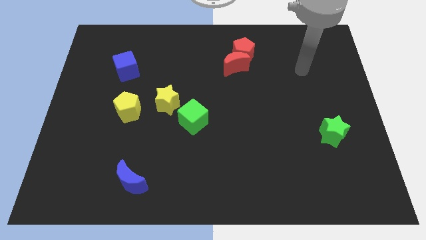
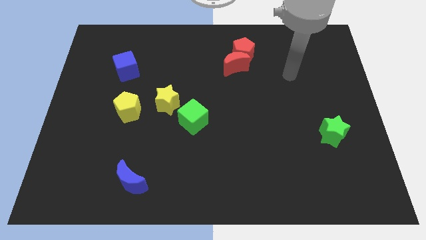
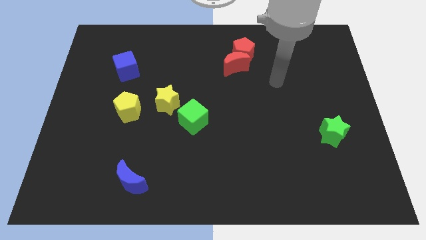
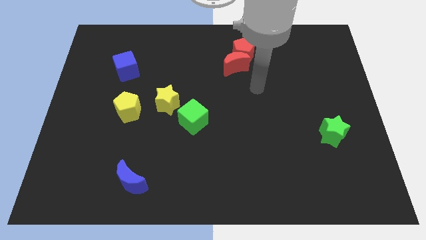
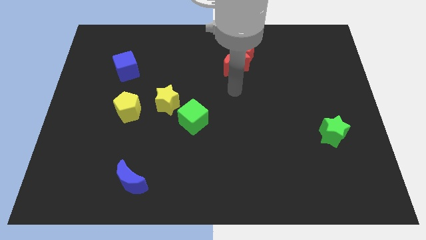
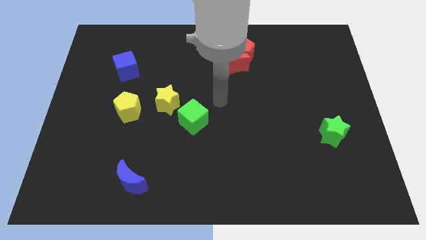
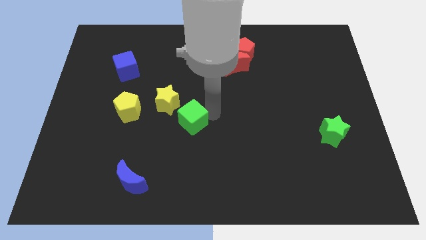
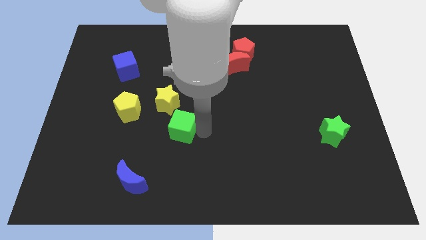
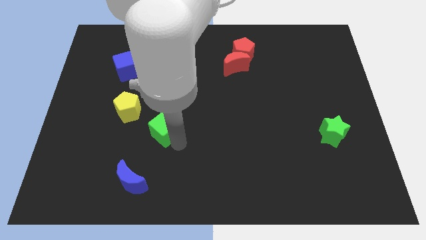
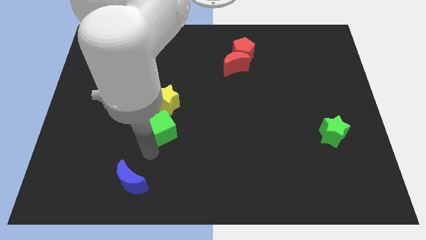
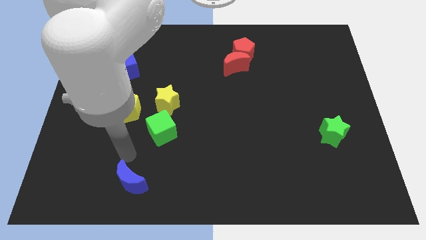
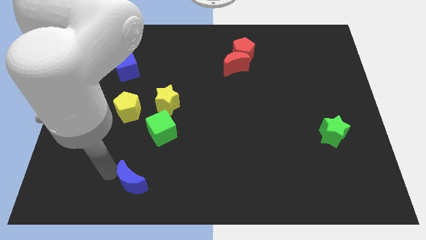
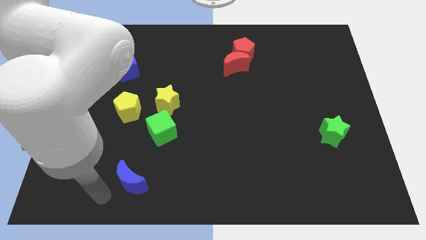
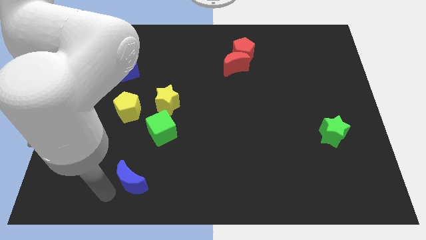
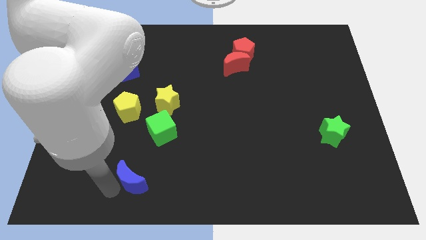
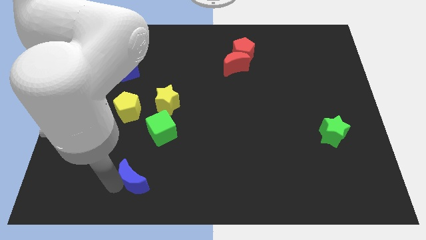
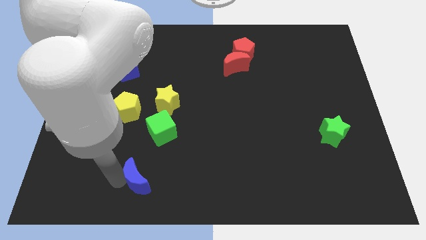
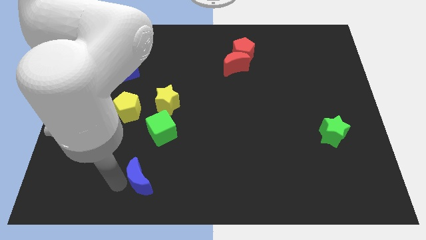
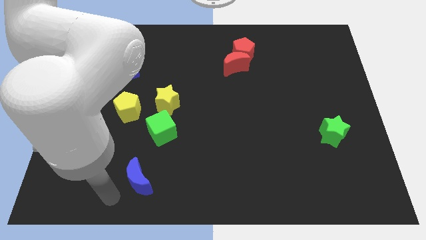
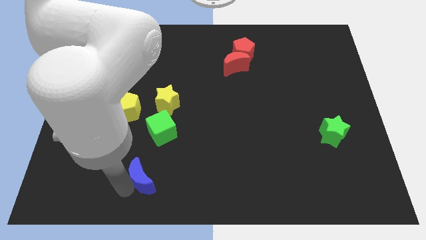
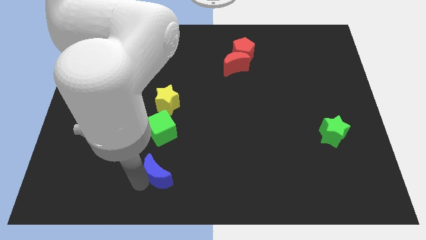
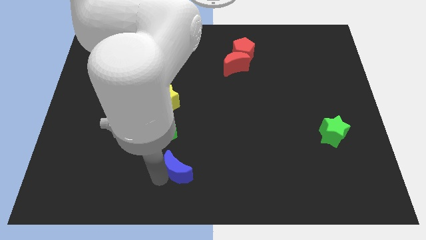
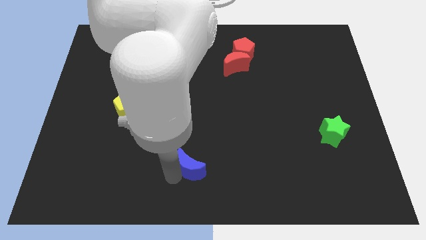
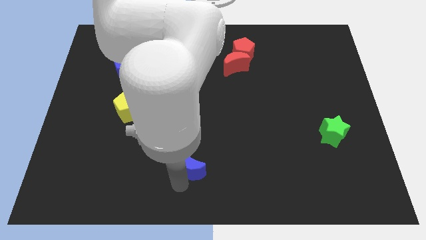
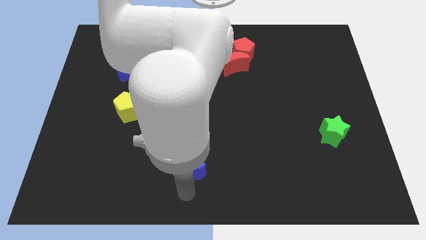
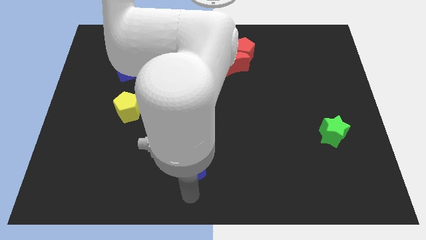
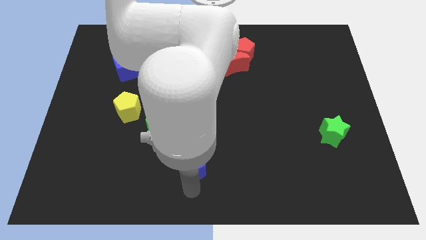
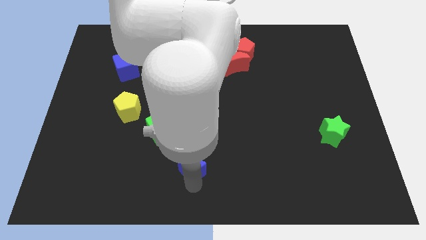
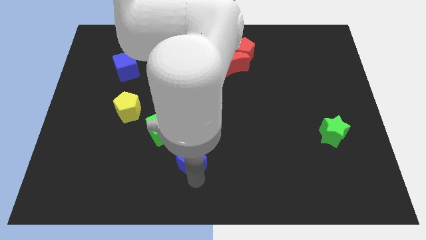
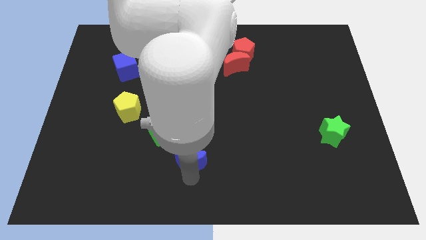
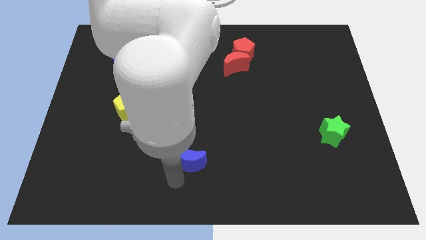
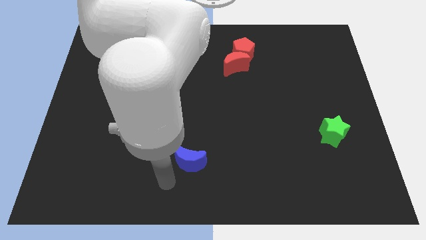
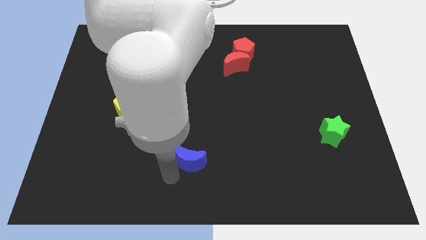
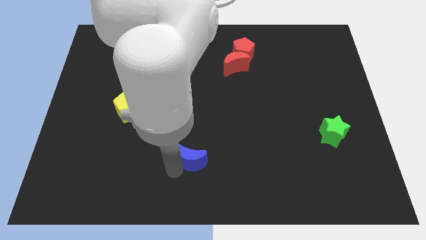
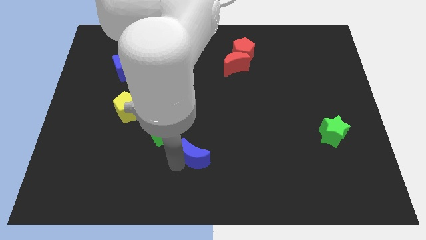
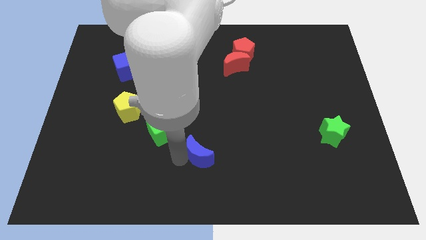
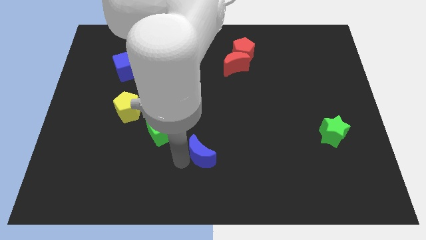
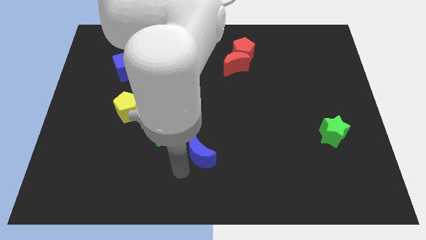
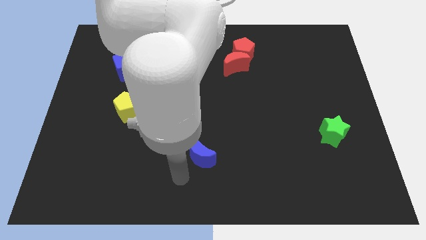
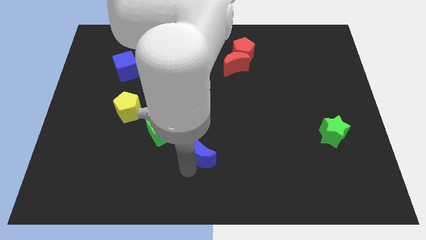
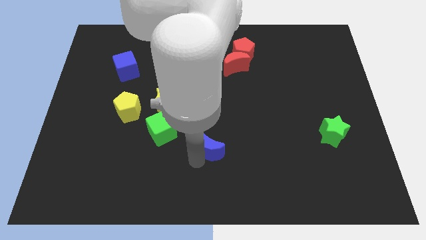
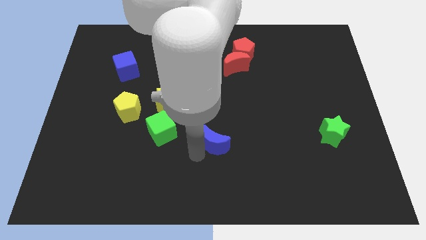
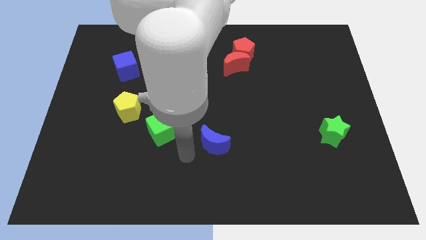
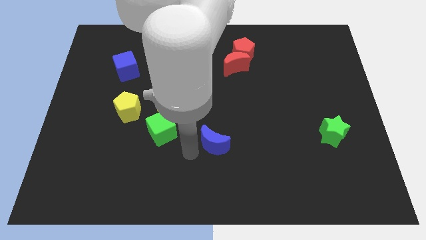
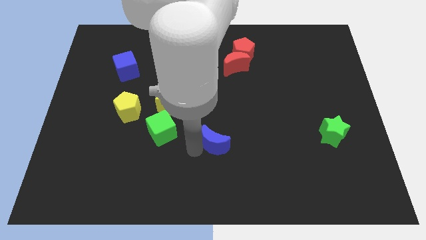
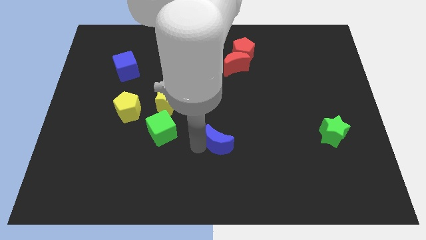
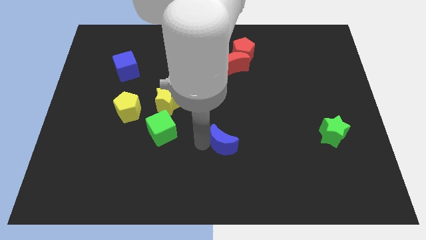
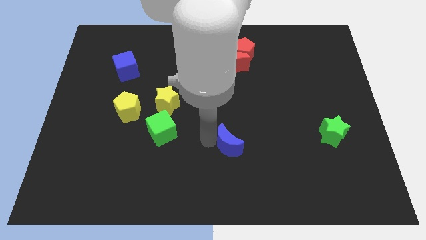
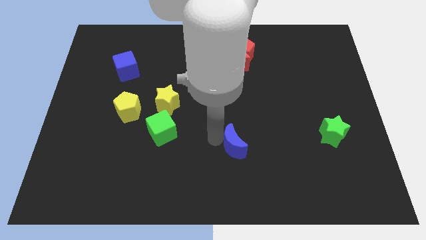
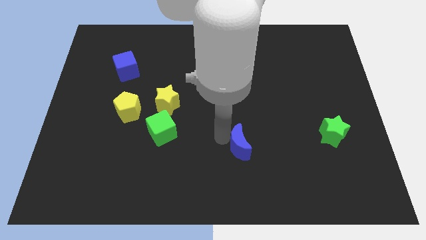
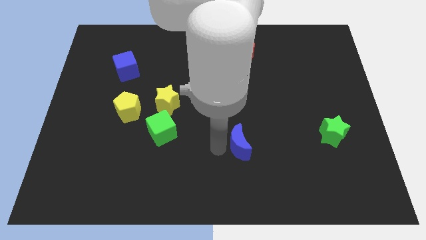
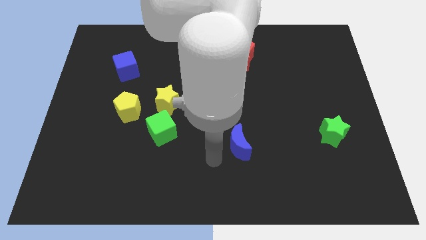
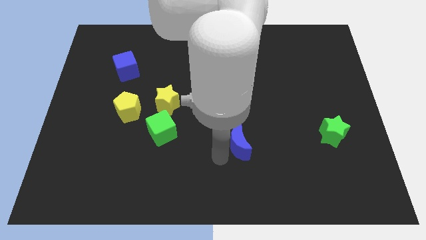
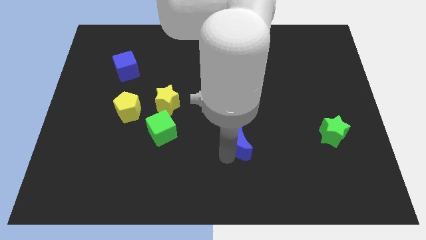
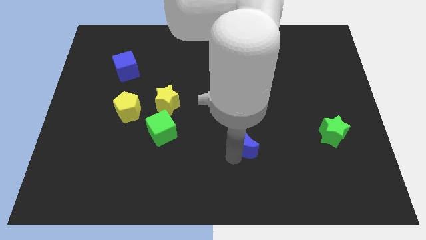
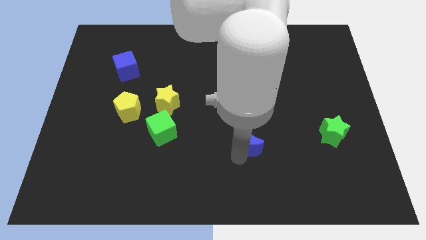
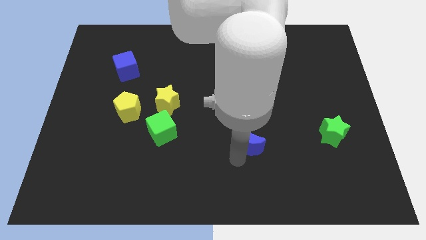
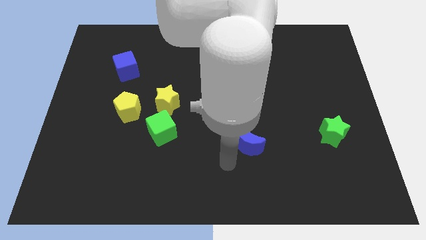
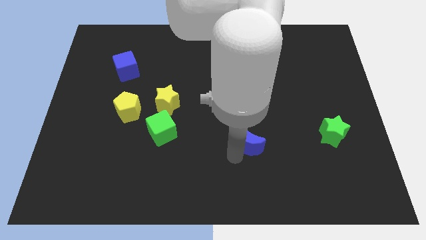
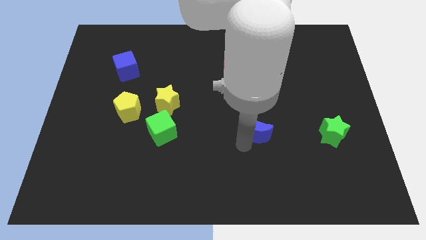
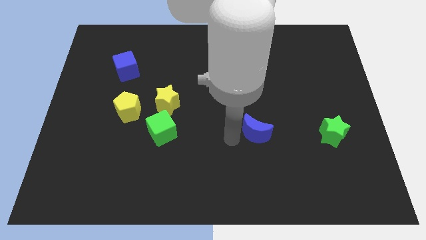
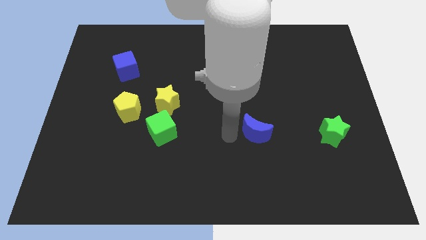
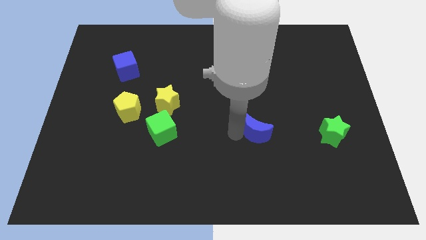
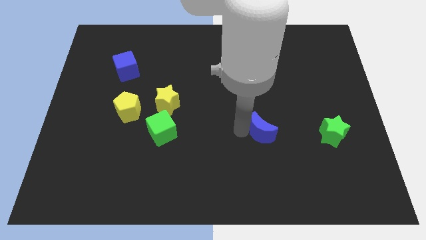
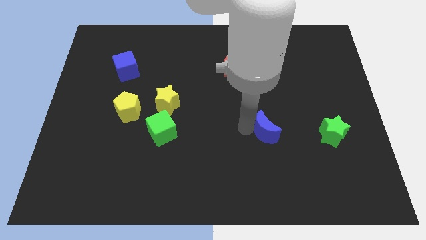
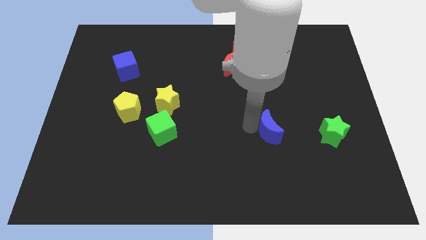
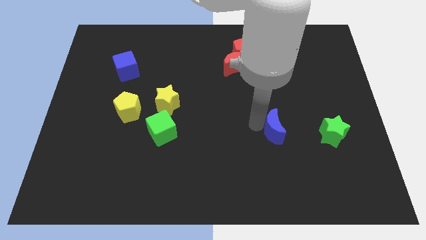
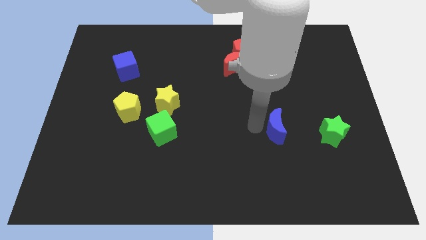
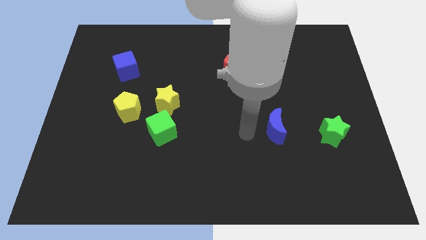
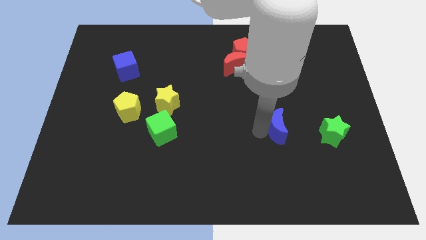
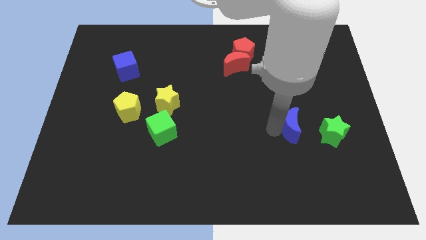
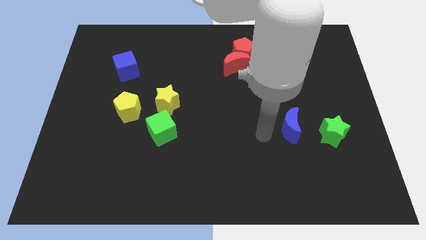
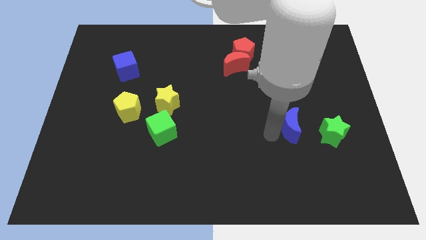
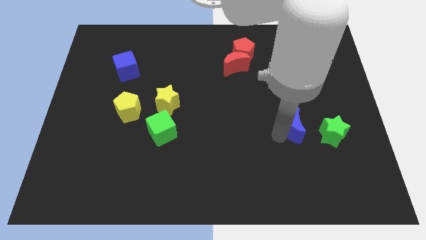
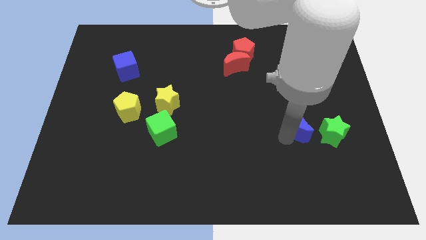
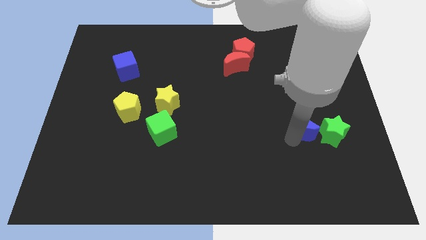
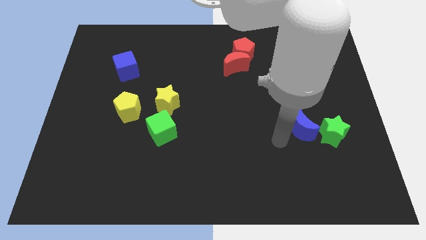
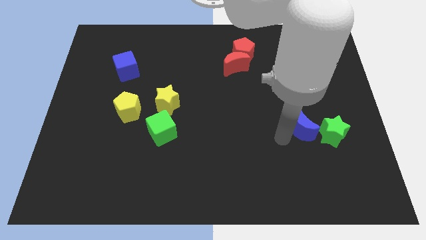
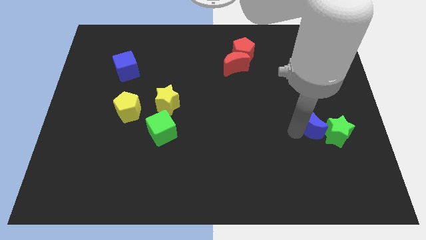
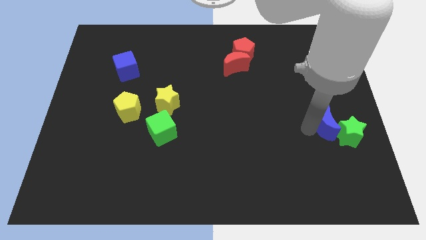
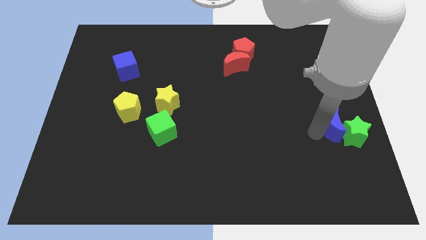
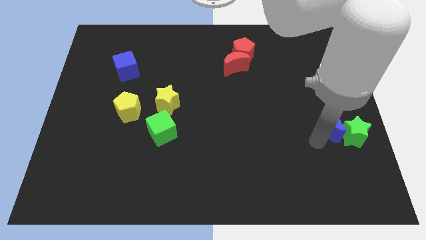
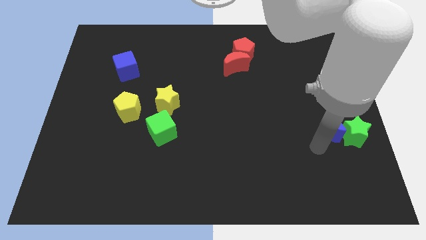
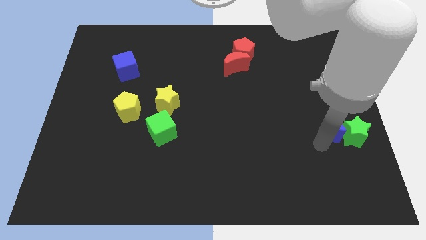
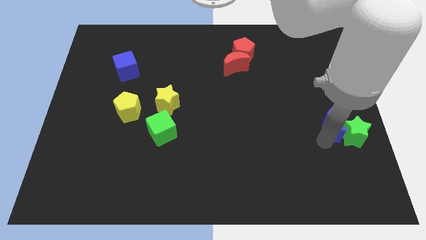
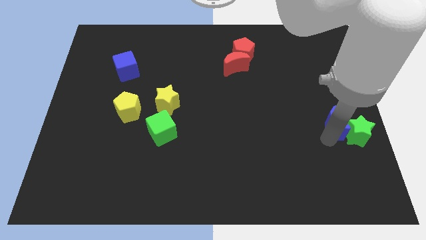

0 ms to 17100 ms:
put the blue moon to the right side of the board
